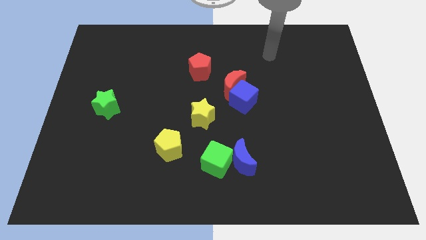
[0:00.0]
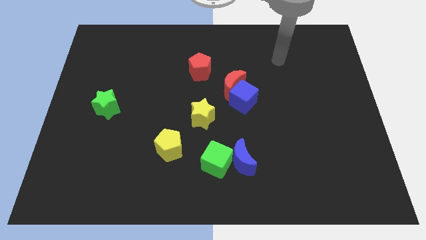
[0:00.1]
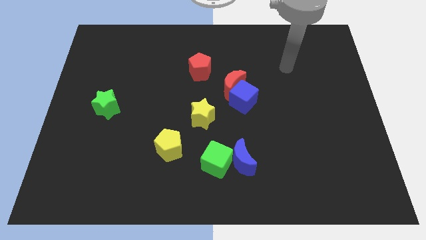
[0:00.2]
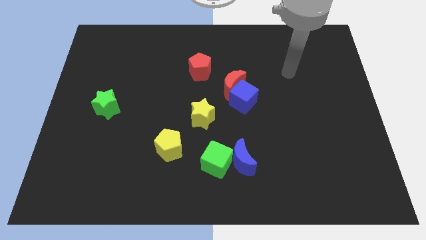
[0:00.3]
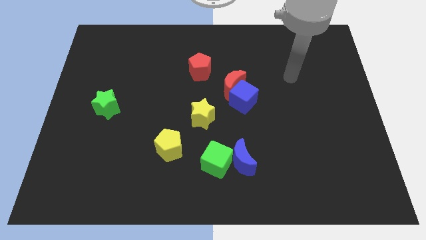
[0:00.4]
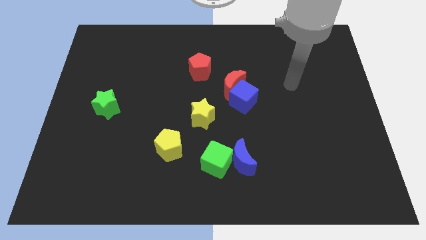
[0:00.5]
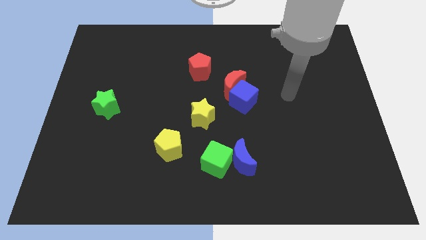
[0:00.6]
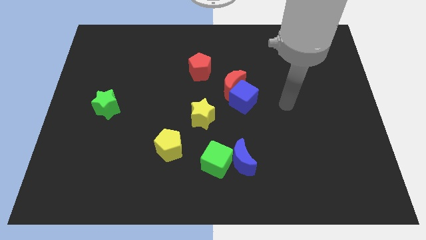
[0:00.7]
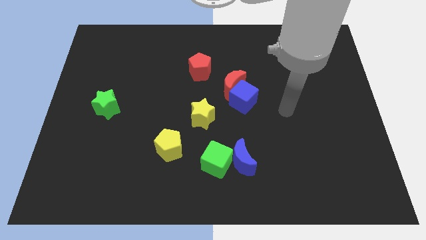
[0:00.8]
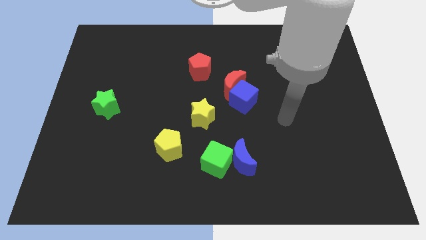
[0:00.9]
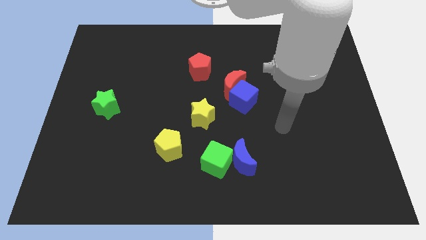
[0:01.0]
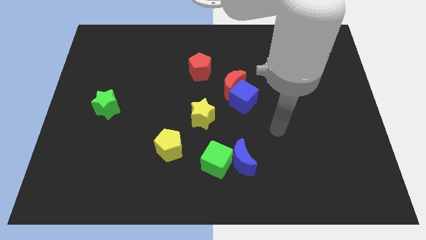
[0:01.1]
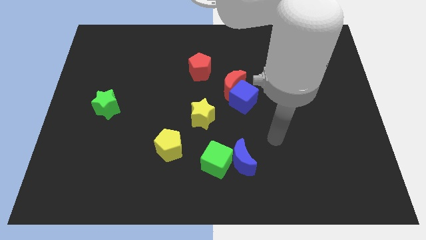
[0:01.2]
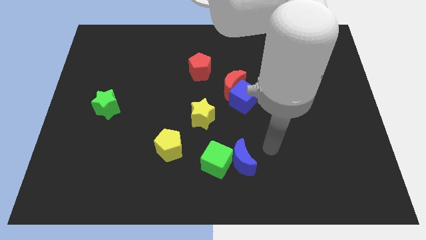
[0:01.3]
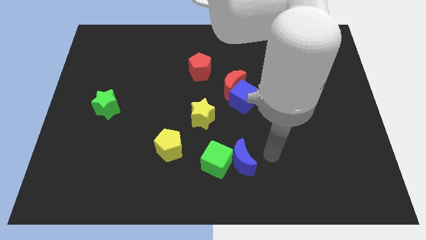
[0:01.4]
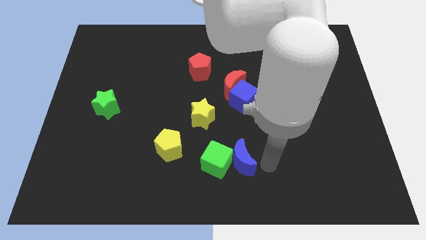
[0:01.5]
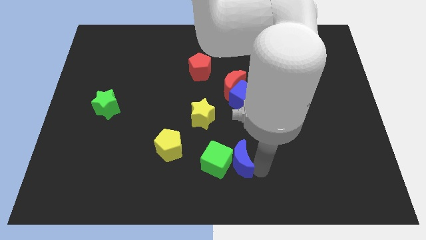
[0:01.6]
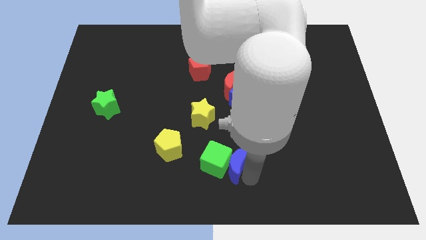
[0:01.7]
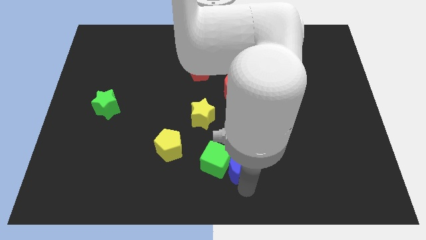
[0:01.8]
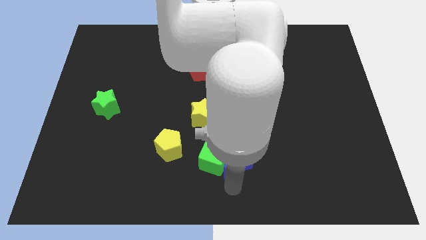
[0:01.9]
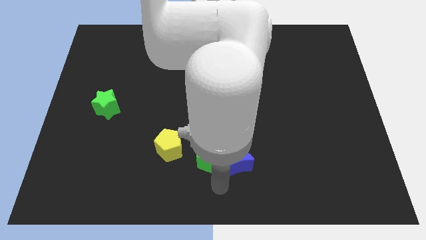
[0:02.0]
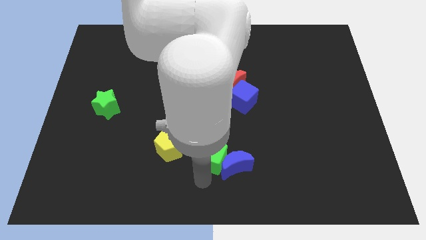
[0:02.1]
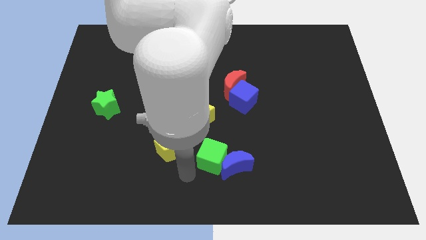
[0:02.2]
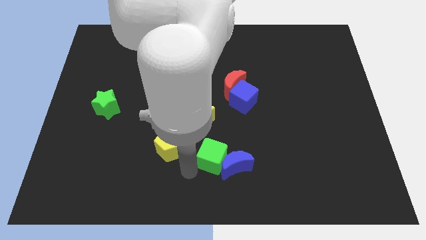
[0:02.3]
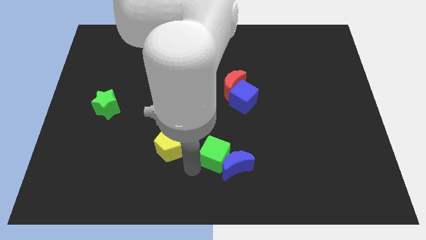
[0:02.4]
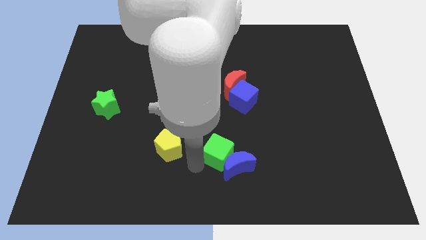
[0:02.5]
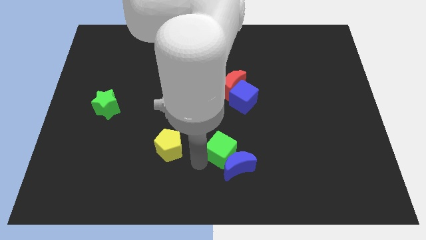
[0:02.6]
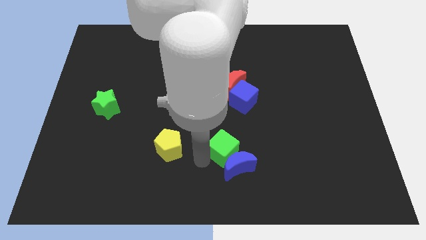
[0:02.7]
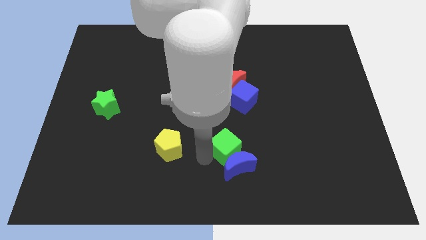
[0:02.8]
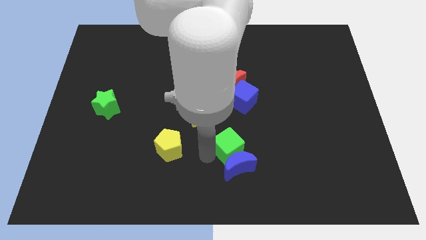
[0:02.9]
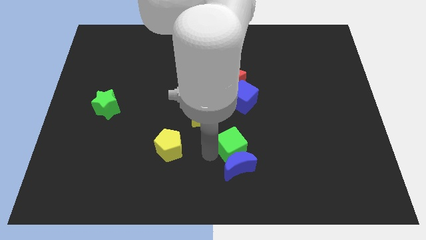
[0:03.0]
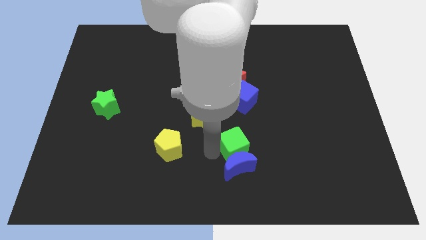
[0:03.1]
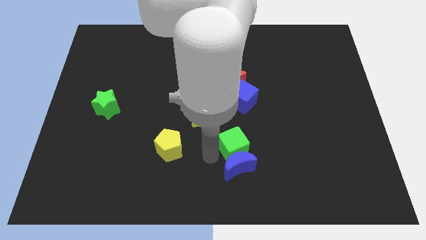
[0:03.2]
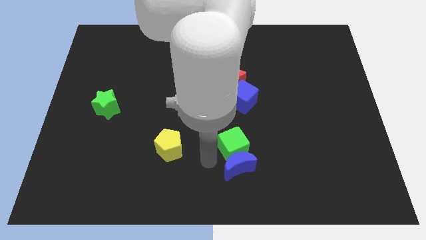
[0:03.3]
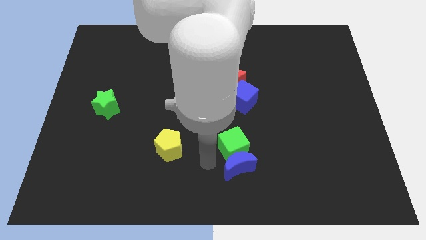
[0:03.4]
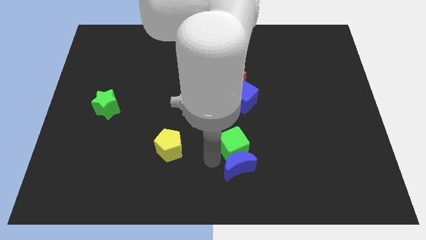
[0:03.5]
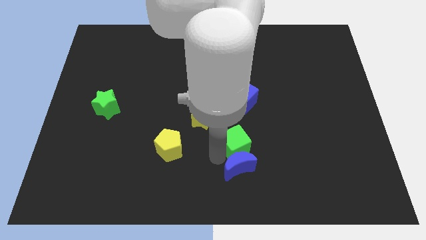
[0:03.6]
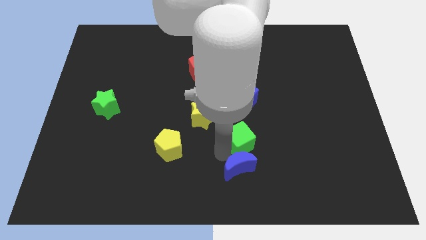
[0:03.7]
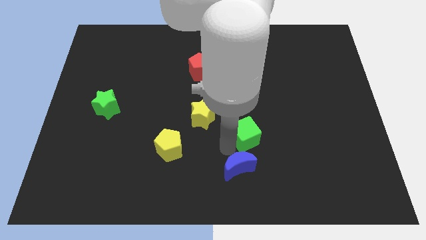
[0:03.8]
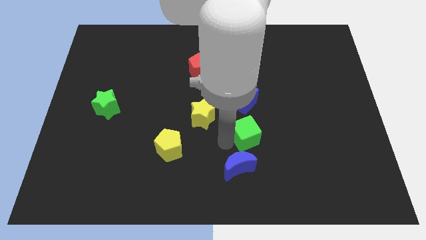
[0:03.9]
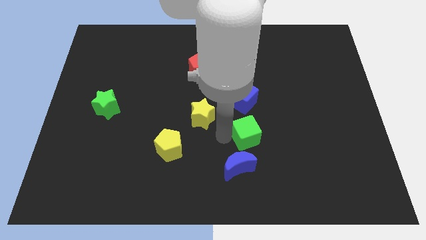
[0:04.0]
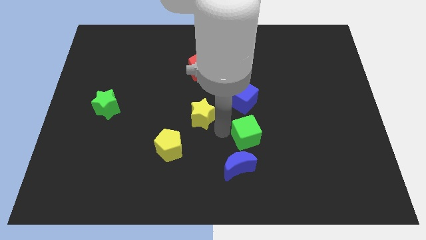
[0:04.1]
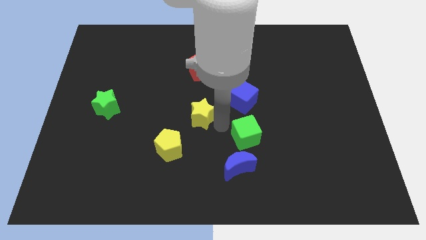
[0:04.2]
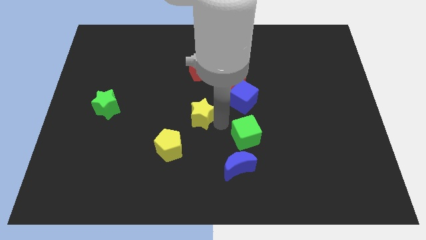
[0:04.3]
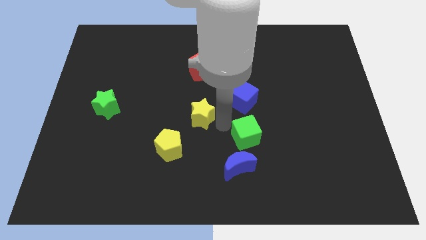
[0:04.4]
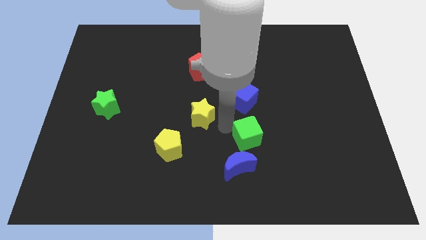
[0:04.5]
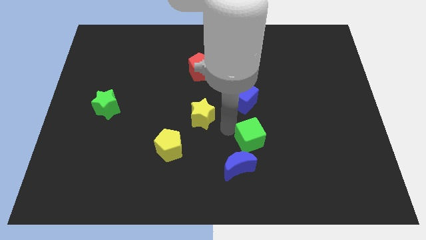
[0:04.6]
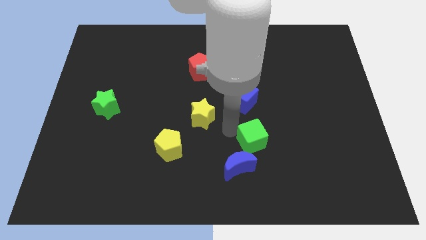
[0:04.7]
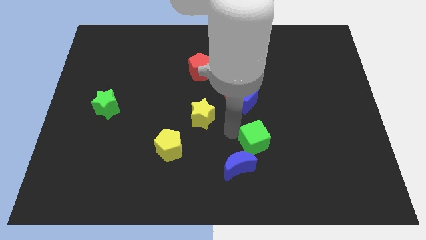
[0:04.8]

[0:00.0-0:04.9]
slide the green cube a little right

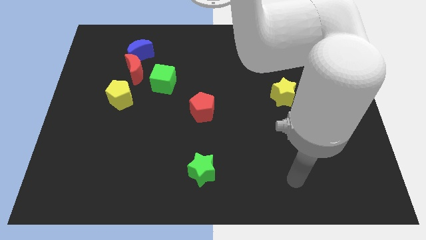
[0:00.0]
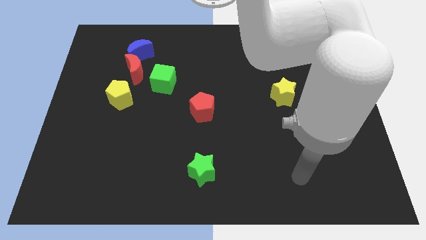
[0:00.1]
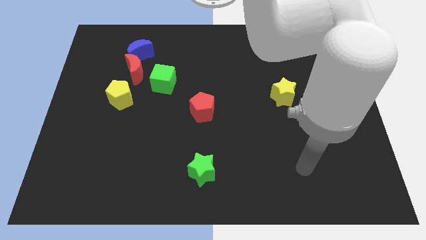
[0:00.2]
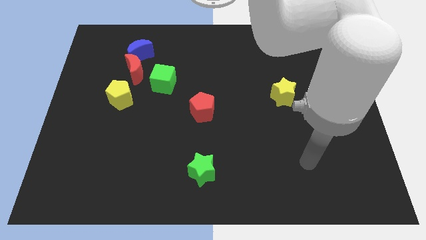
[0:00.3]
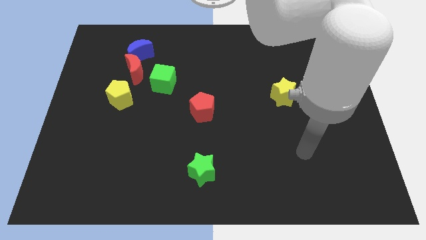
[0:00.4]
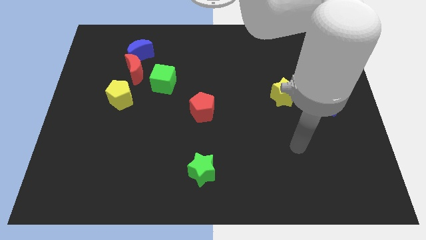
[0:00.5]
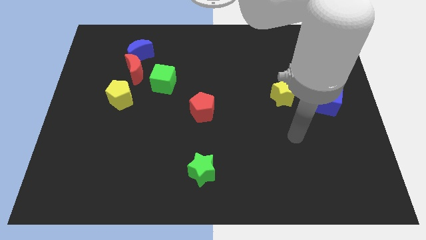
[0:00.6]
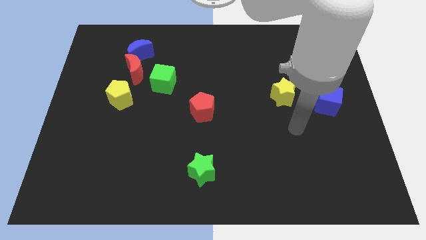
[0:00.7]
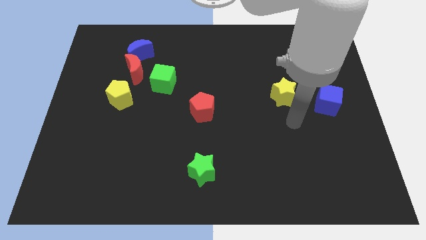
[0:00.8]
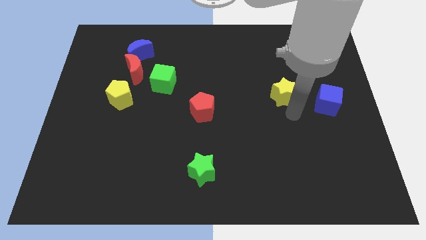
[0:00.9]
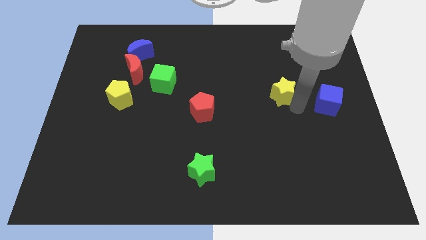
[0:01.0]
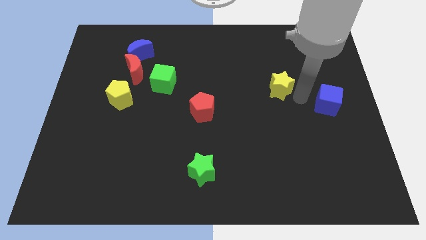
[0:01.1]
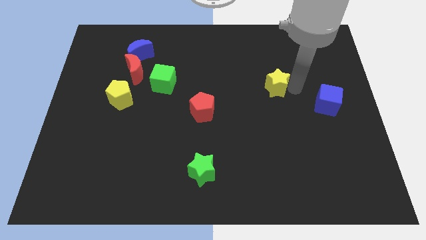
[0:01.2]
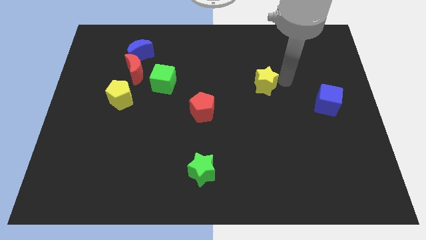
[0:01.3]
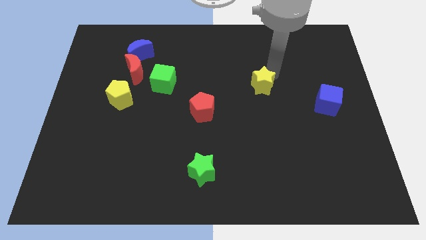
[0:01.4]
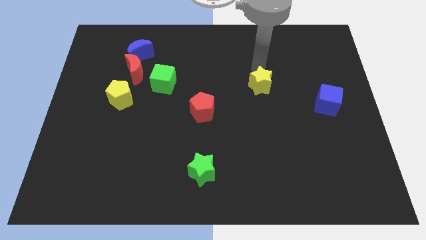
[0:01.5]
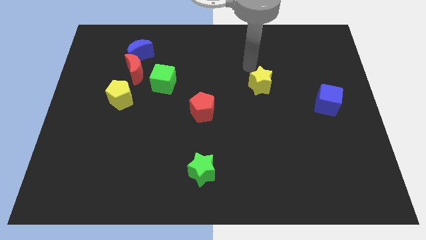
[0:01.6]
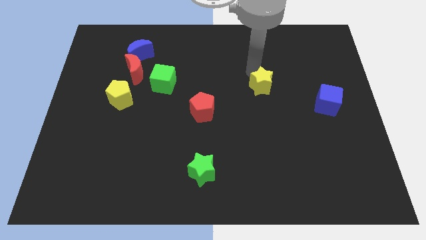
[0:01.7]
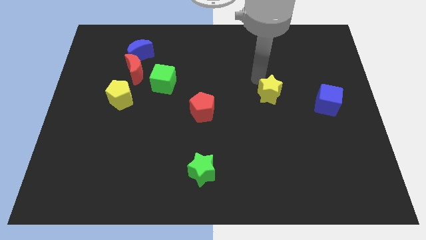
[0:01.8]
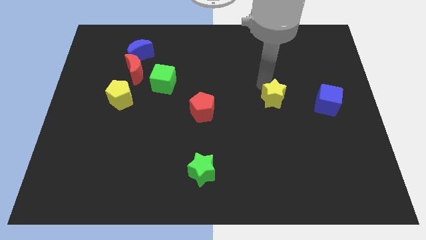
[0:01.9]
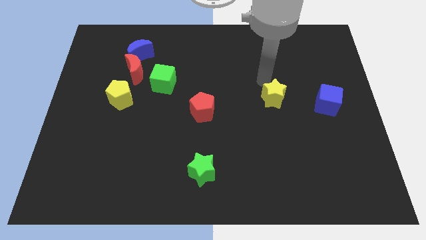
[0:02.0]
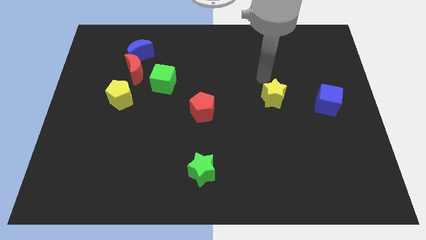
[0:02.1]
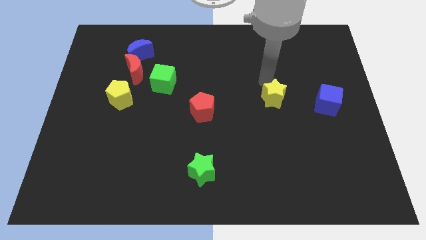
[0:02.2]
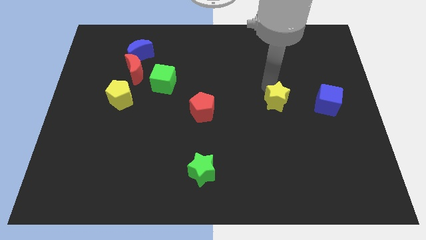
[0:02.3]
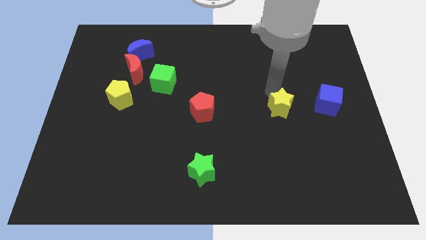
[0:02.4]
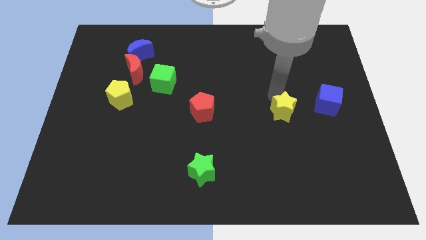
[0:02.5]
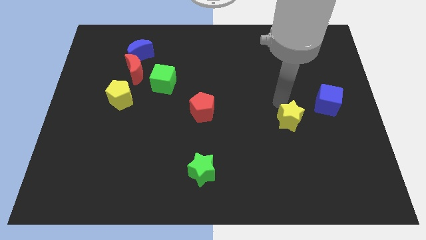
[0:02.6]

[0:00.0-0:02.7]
slightly move the yellow star downwards

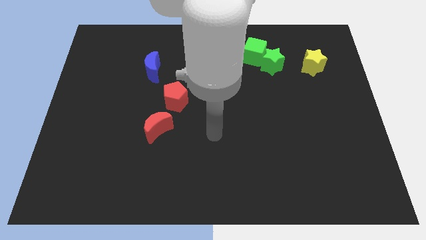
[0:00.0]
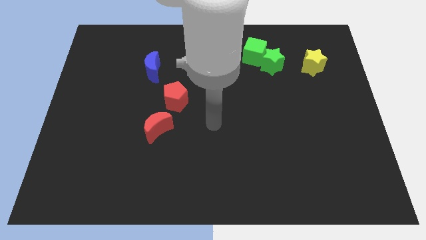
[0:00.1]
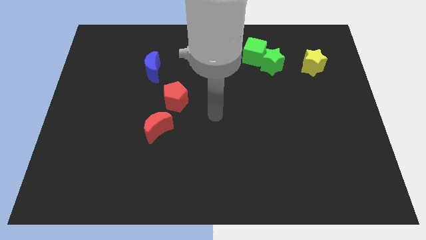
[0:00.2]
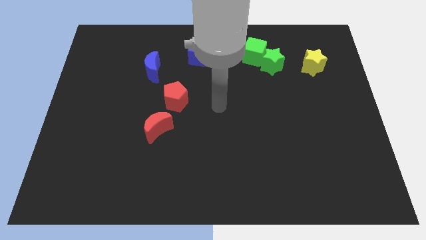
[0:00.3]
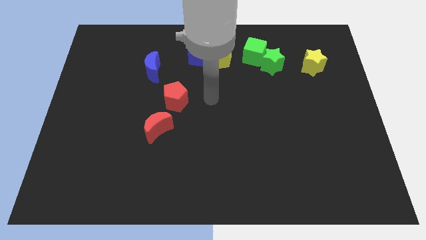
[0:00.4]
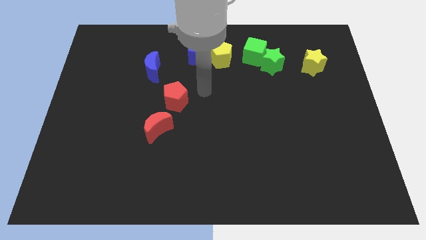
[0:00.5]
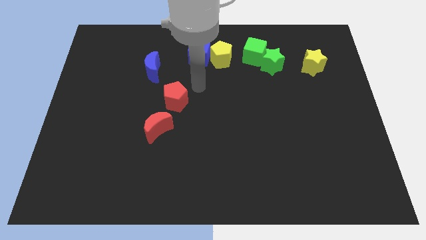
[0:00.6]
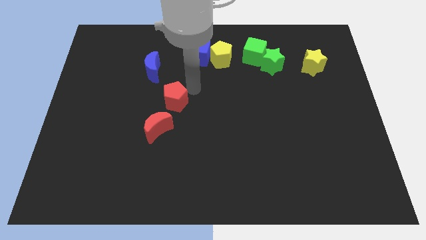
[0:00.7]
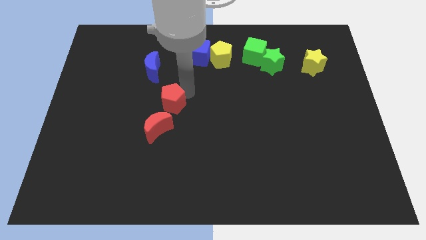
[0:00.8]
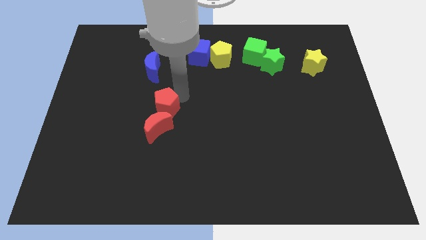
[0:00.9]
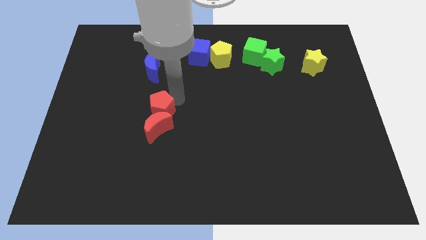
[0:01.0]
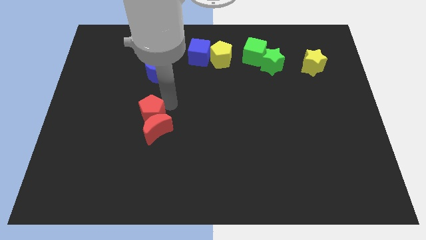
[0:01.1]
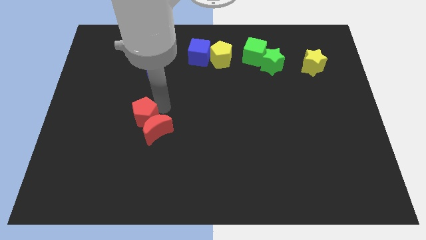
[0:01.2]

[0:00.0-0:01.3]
move the red pentagon downwards and then left a bit

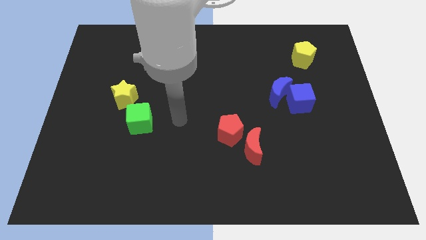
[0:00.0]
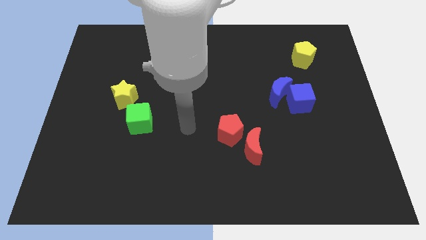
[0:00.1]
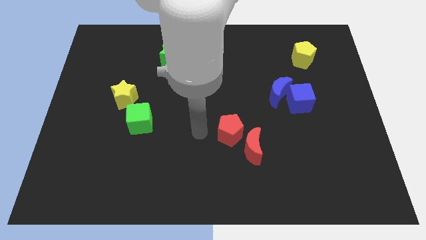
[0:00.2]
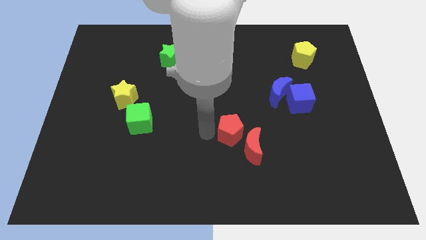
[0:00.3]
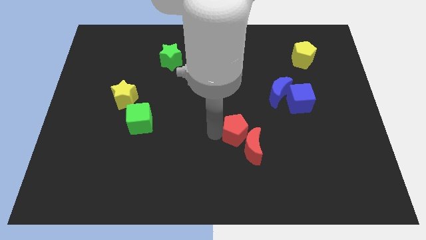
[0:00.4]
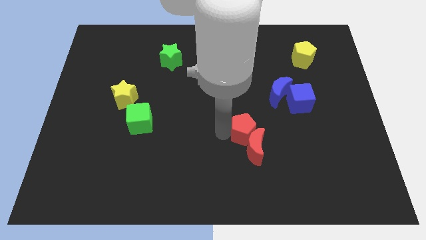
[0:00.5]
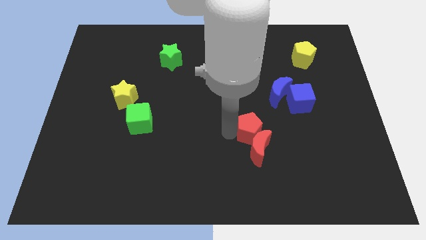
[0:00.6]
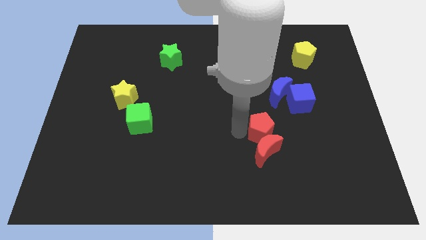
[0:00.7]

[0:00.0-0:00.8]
move the red pentagon right a little
